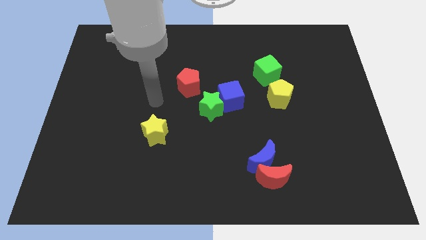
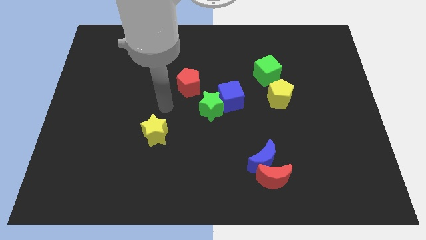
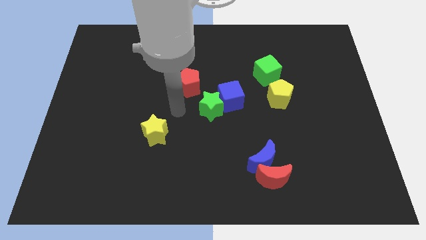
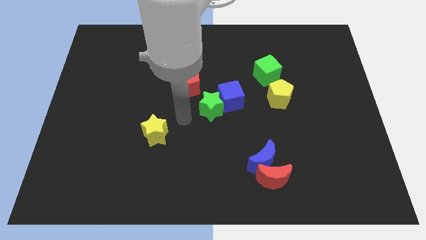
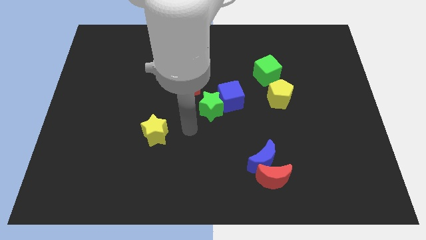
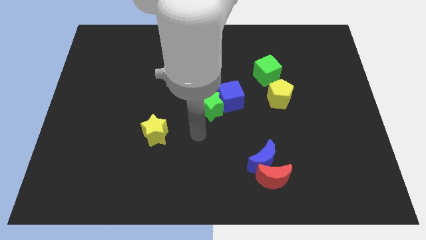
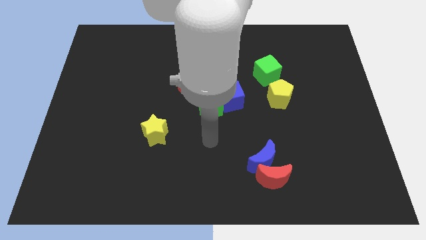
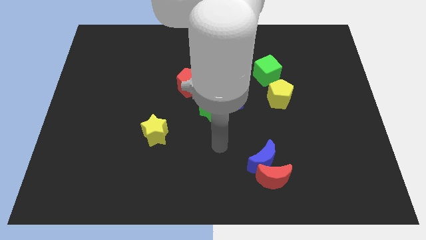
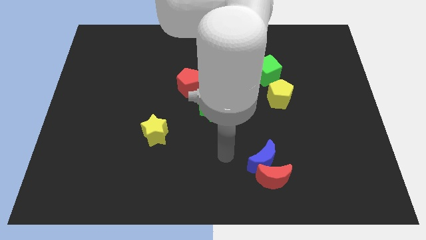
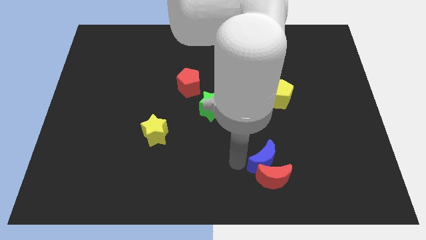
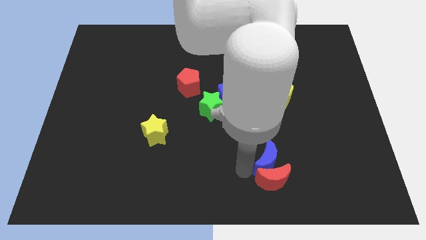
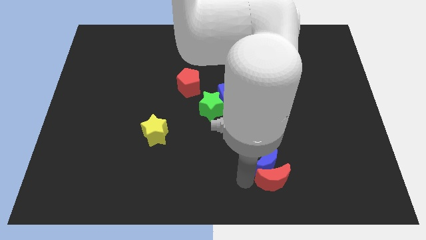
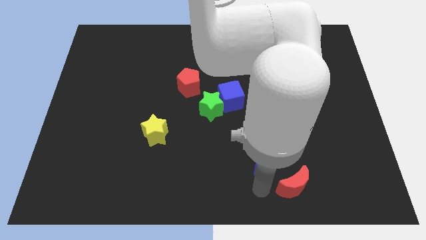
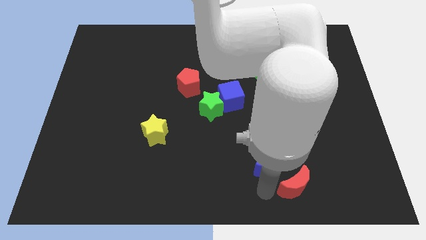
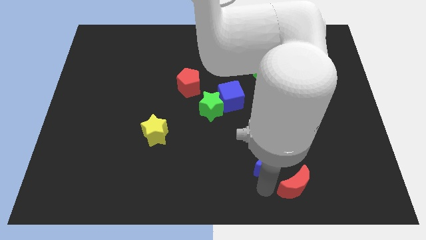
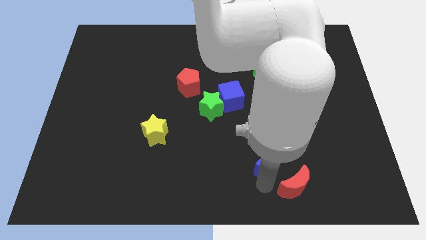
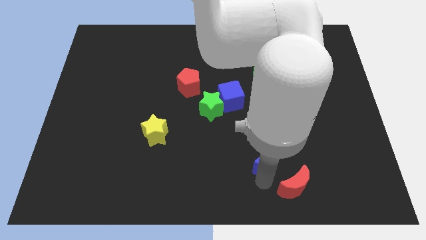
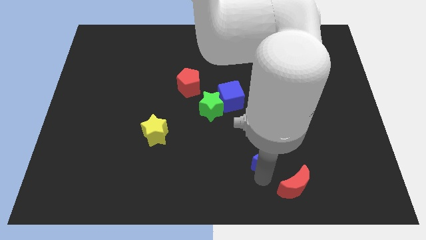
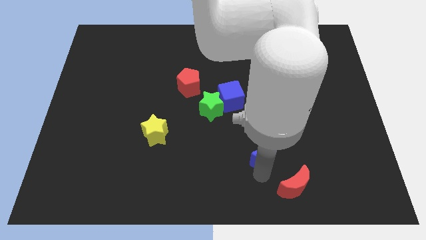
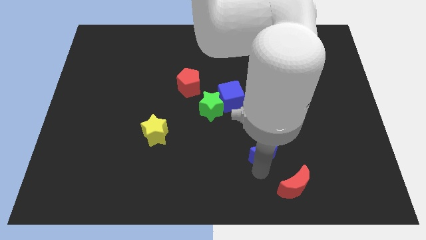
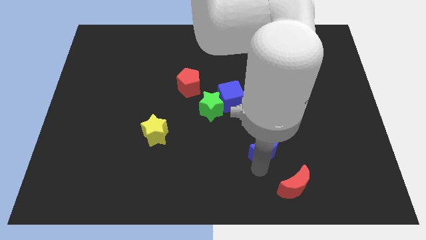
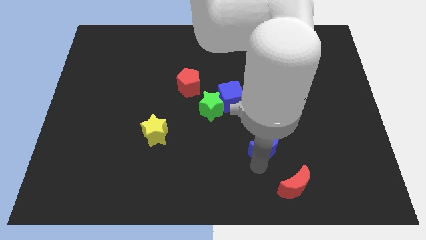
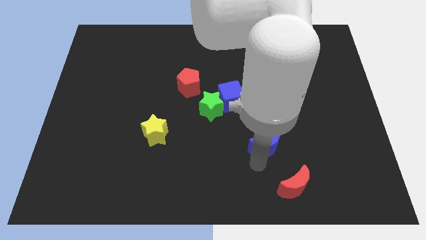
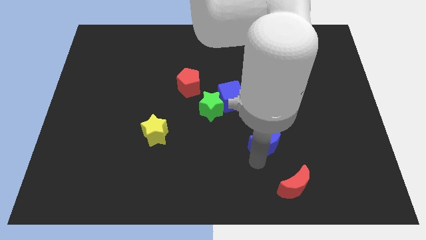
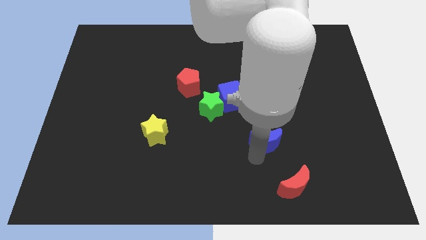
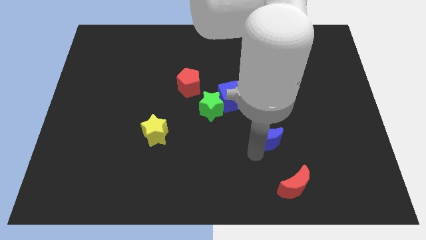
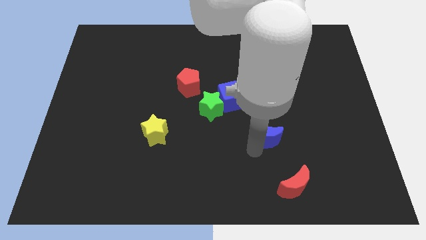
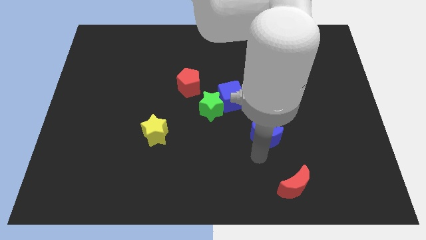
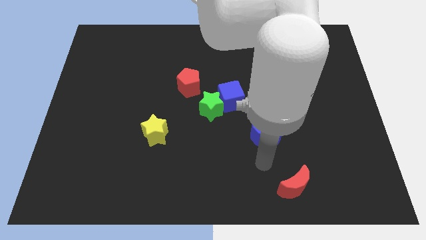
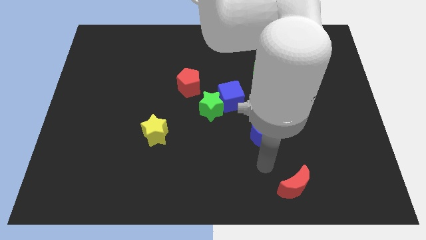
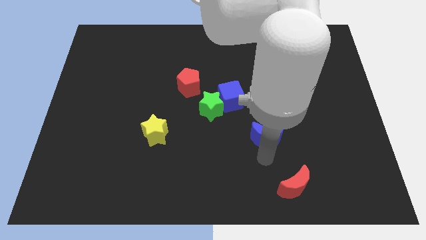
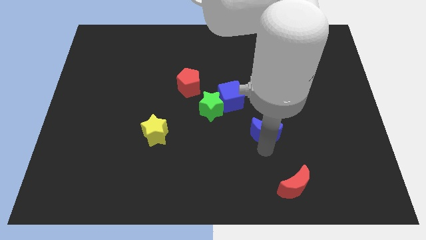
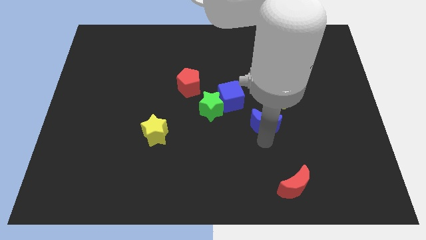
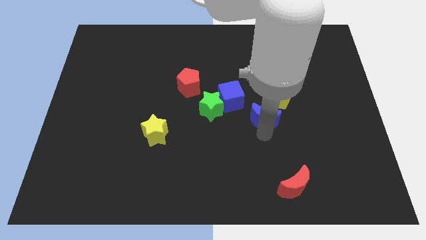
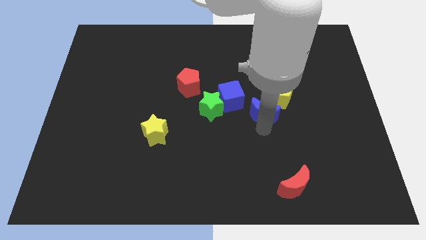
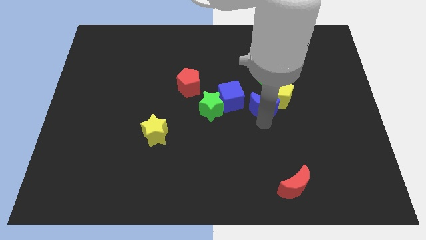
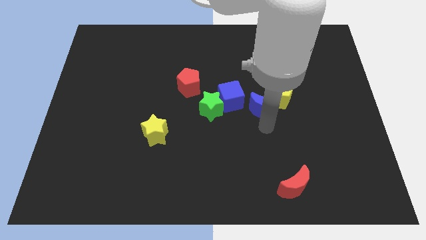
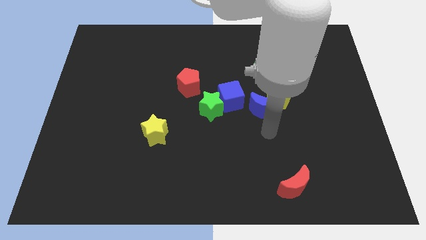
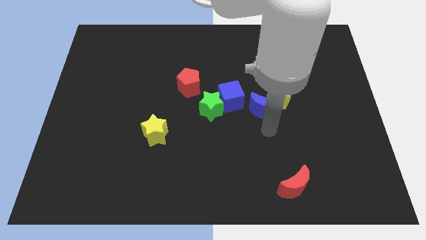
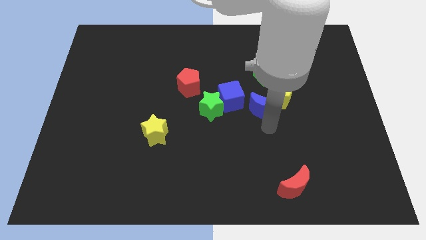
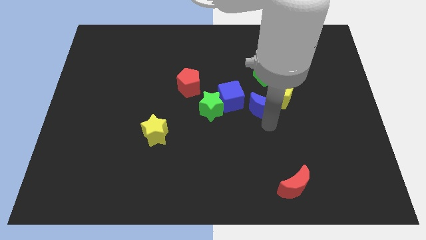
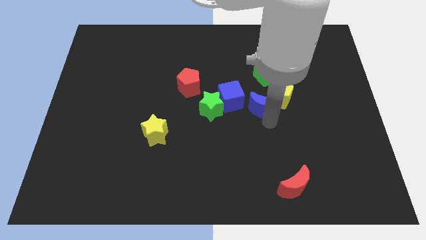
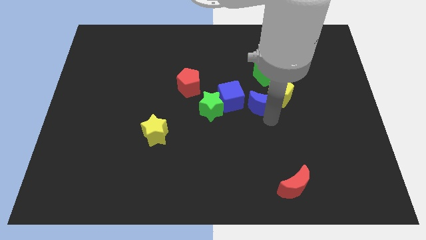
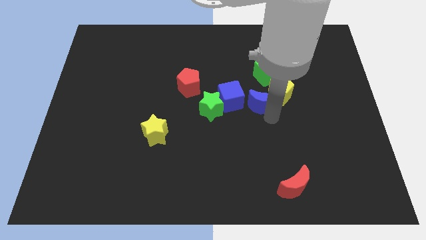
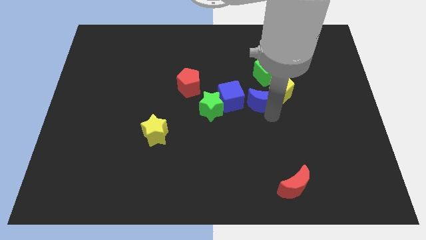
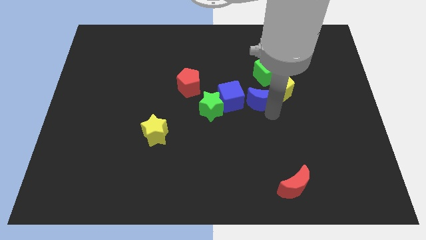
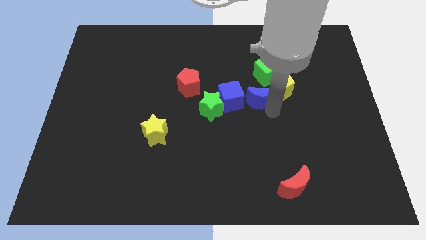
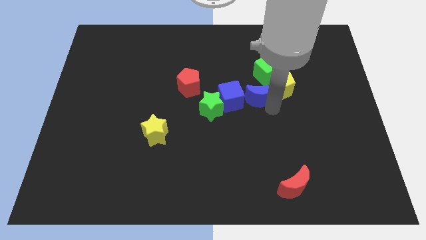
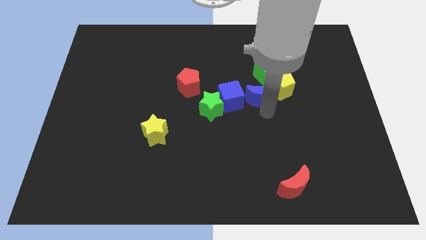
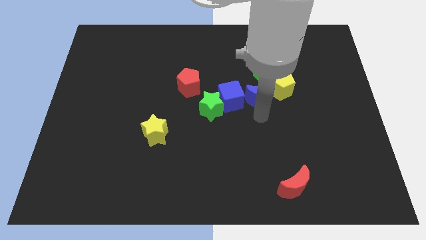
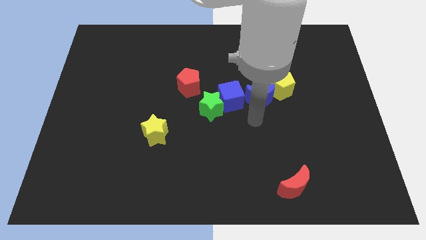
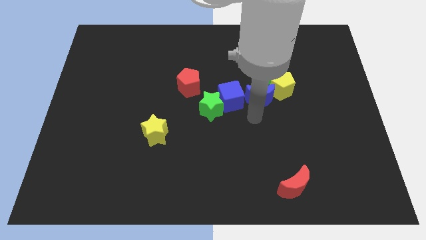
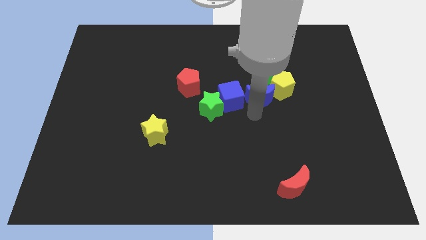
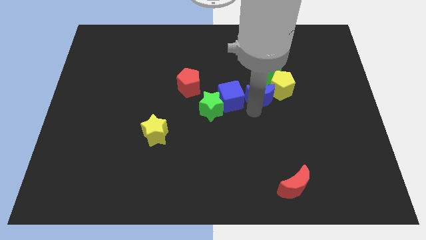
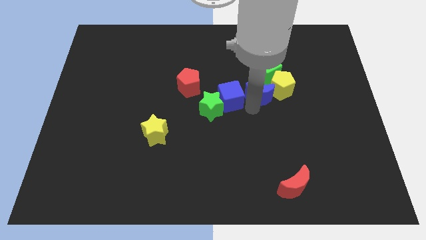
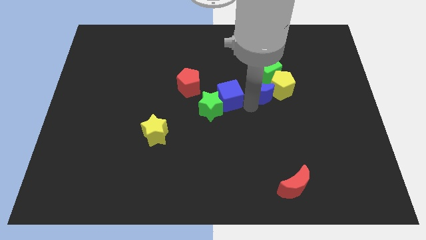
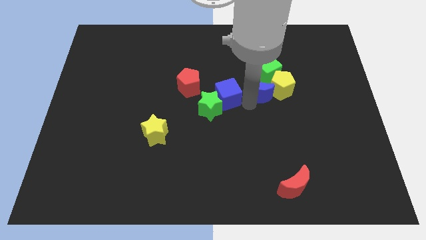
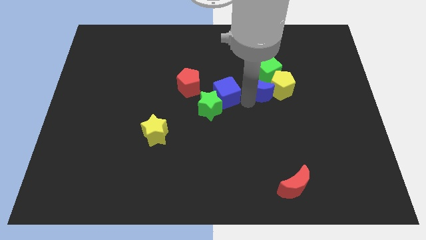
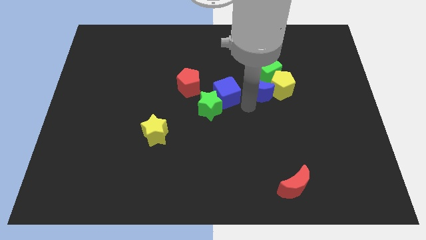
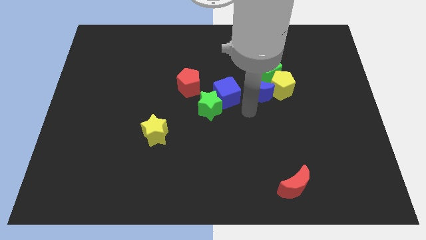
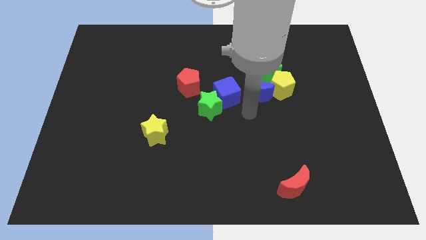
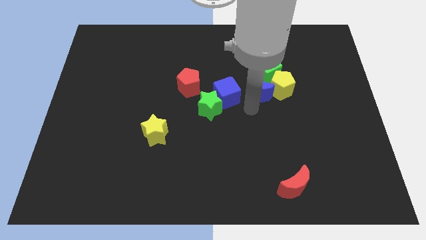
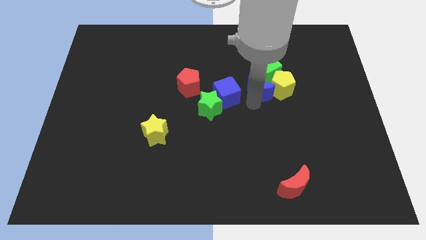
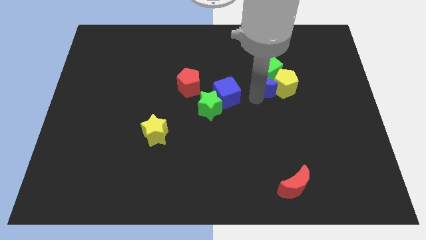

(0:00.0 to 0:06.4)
put the blue moon next to the green cube

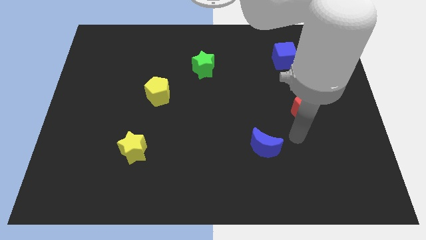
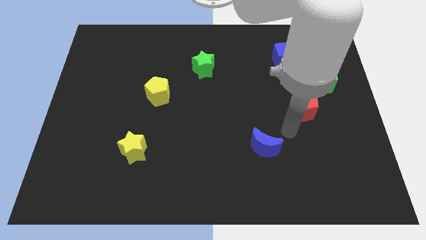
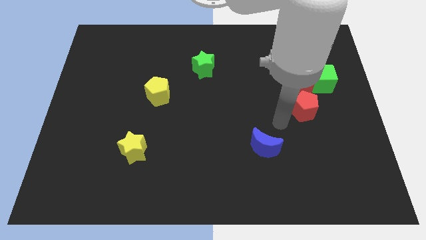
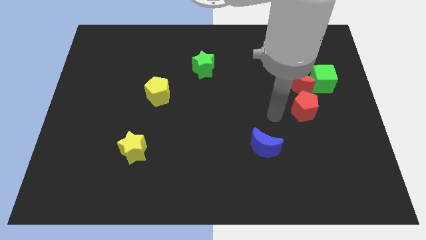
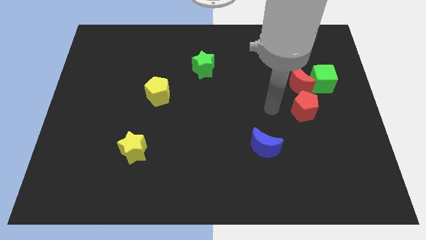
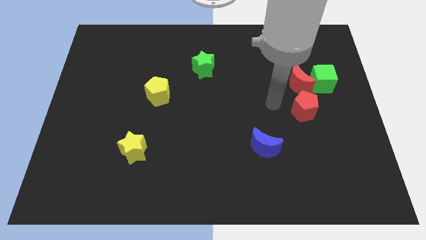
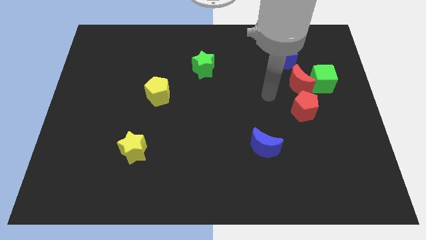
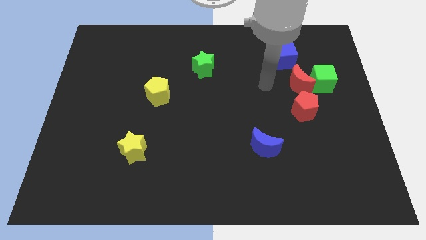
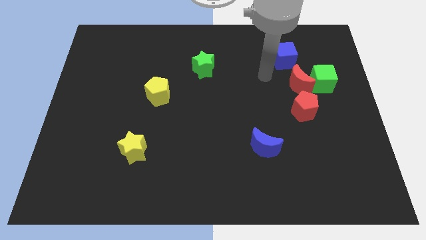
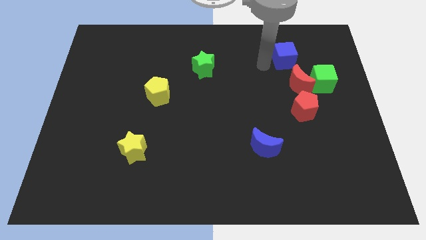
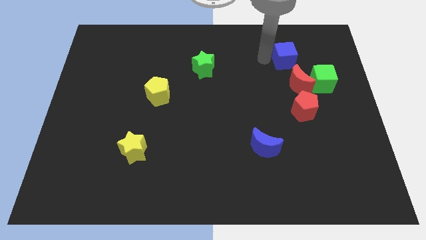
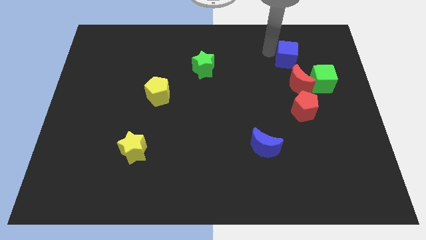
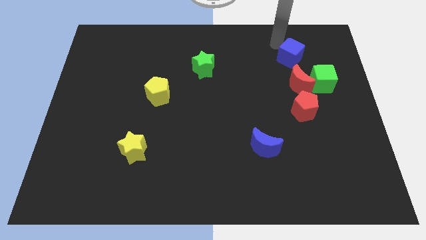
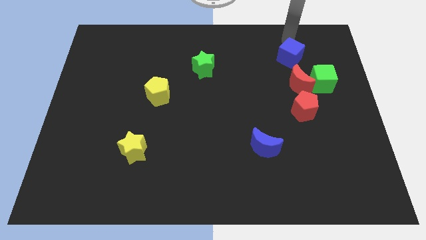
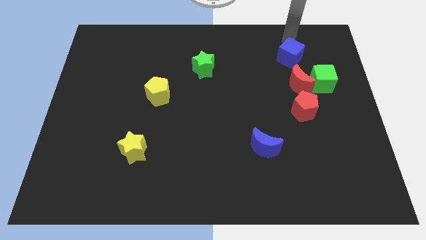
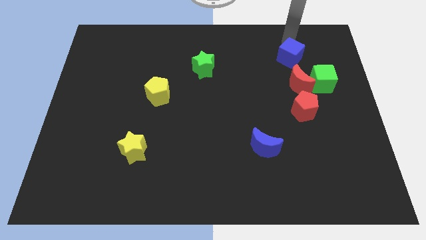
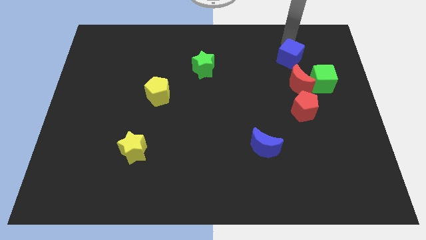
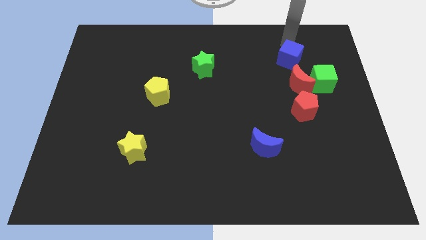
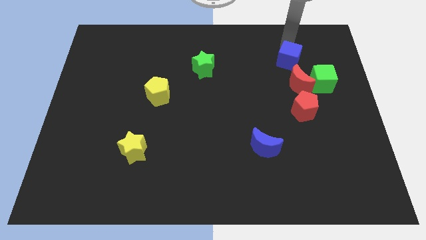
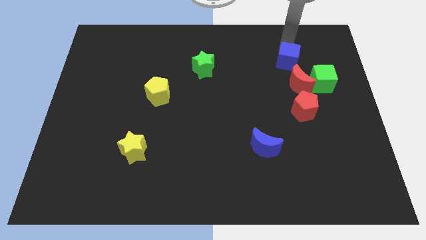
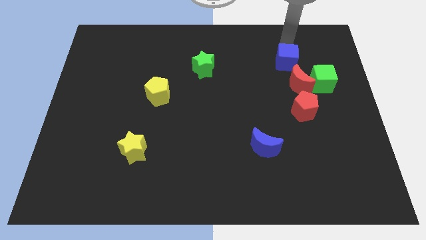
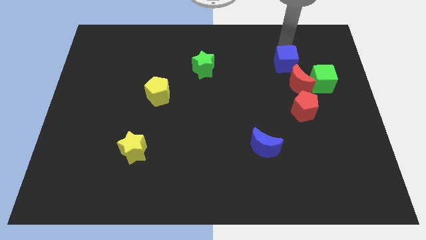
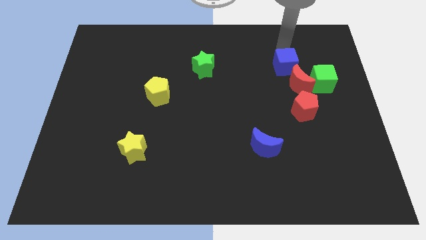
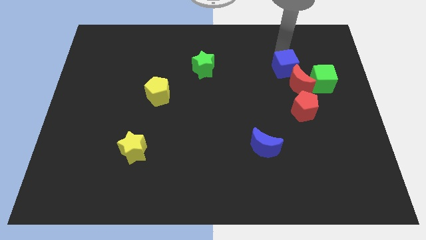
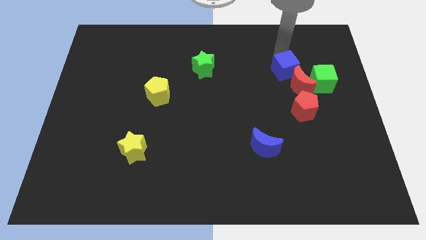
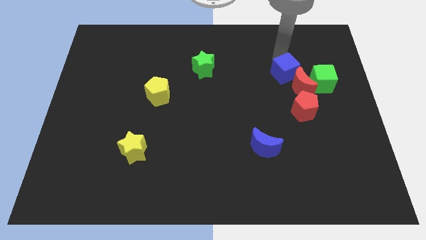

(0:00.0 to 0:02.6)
move the blue cube towards the red moon
